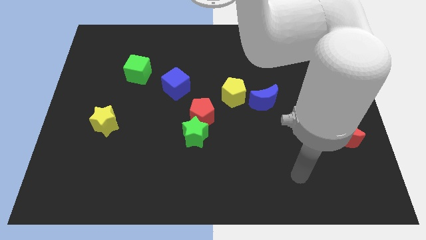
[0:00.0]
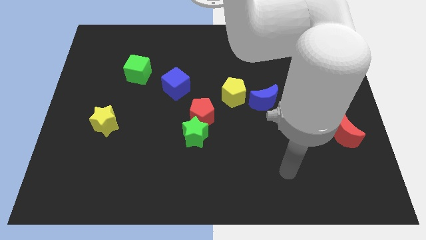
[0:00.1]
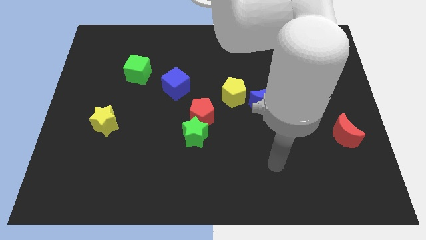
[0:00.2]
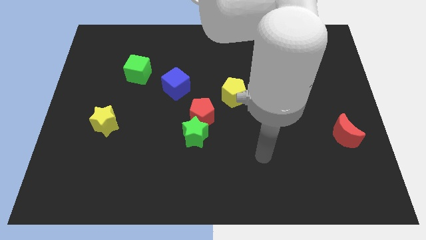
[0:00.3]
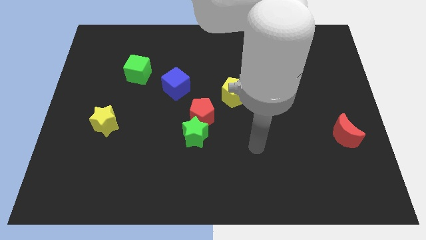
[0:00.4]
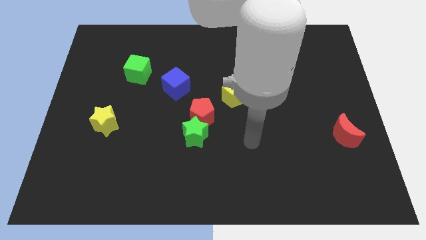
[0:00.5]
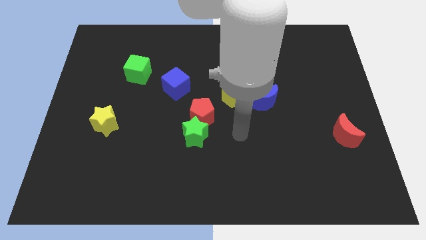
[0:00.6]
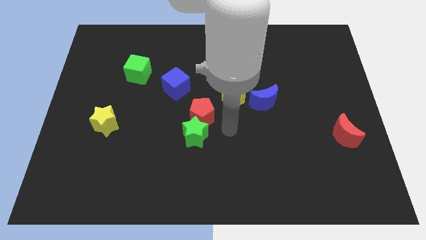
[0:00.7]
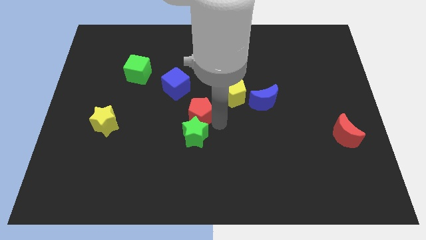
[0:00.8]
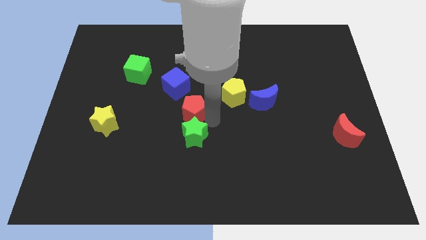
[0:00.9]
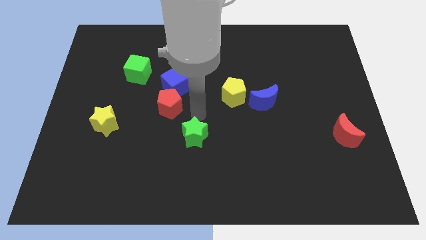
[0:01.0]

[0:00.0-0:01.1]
pull the green star apart from the red pentagon

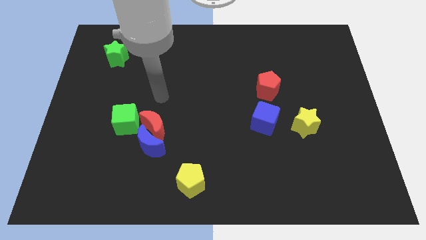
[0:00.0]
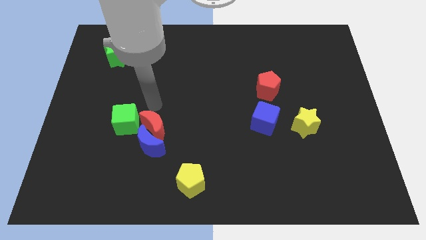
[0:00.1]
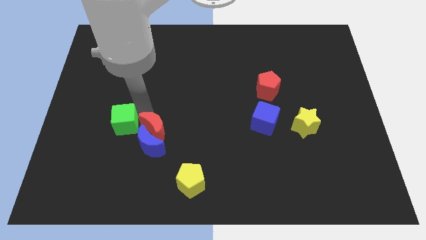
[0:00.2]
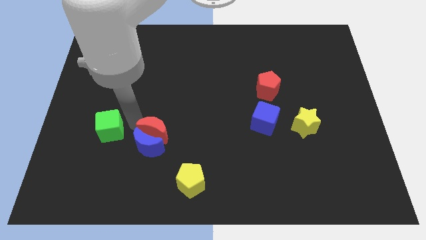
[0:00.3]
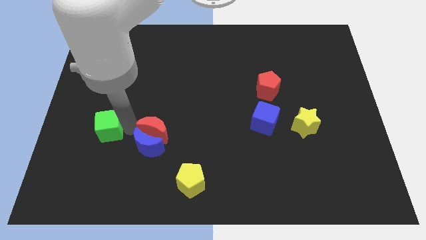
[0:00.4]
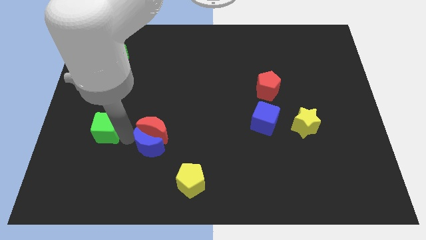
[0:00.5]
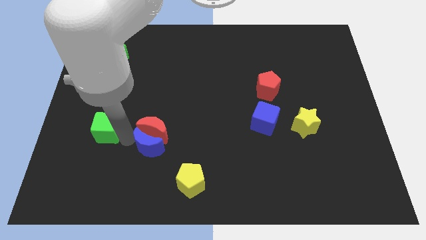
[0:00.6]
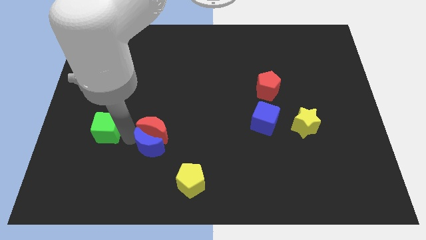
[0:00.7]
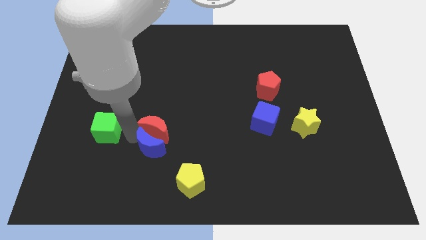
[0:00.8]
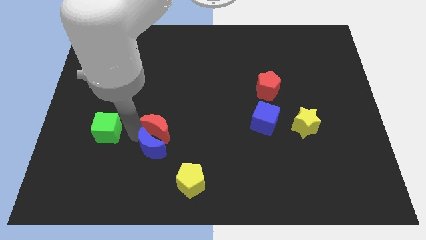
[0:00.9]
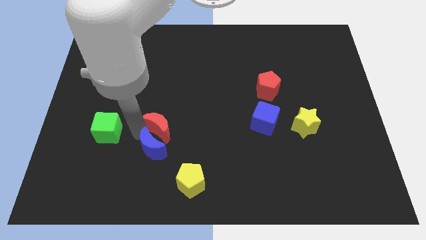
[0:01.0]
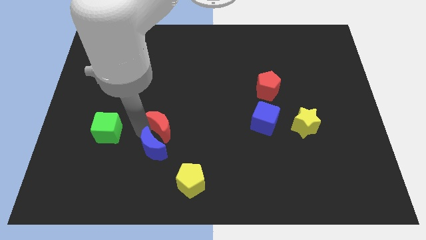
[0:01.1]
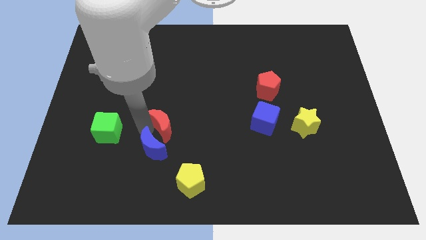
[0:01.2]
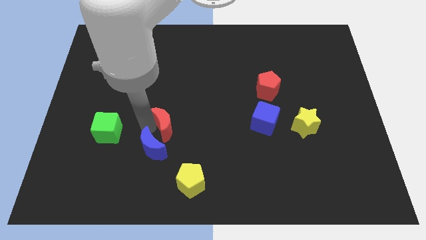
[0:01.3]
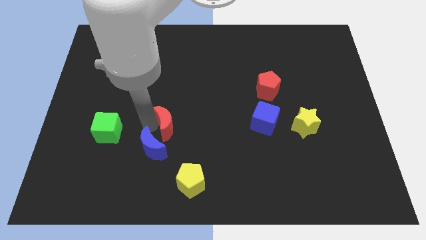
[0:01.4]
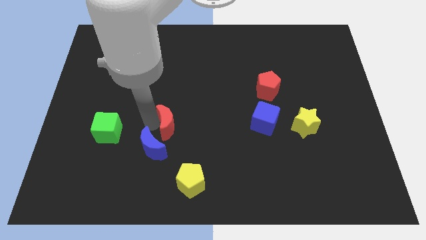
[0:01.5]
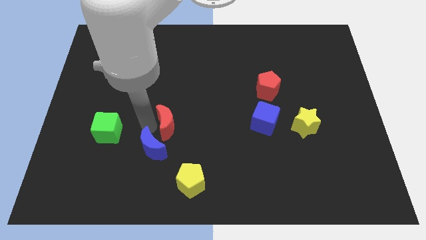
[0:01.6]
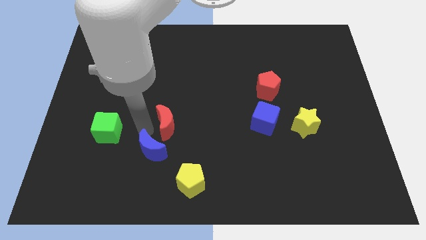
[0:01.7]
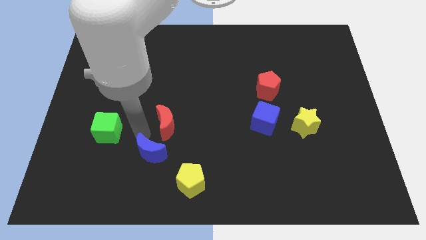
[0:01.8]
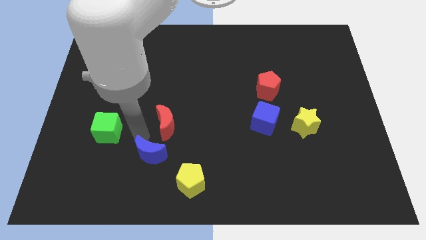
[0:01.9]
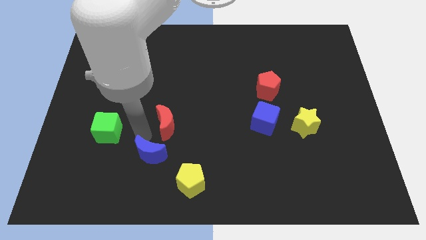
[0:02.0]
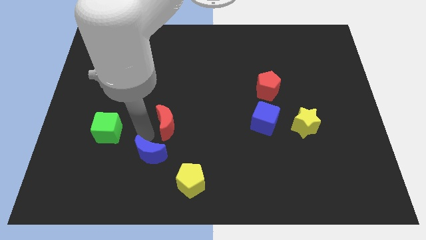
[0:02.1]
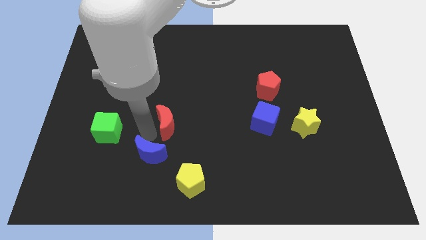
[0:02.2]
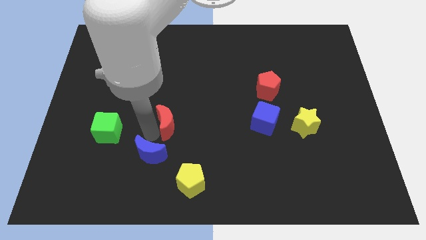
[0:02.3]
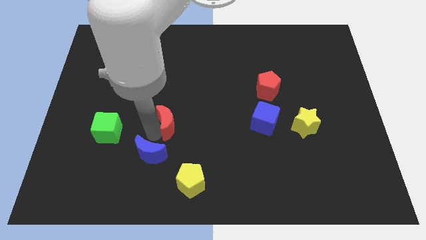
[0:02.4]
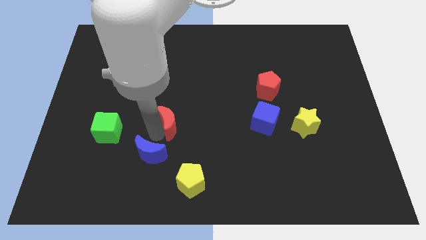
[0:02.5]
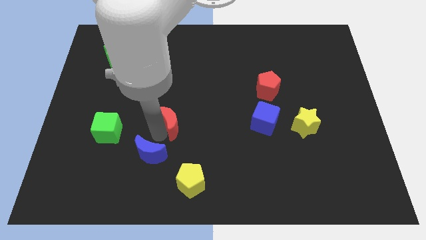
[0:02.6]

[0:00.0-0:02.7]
move the red moon away from the blue moon and green cube

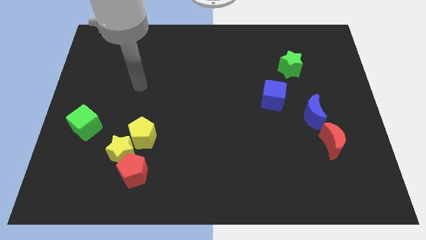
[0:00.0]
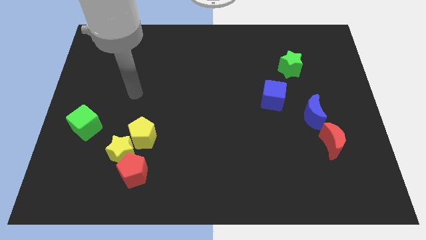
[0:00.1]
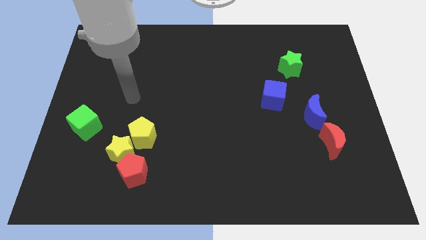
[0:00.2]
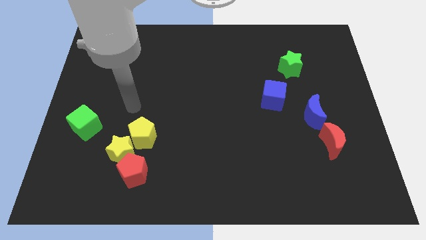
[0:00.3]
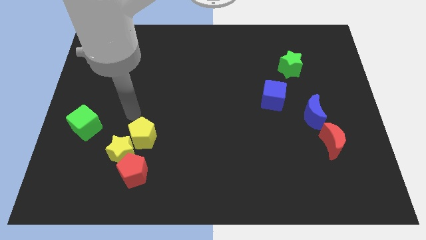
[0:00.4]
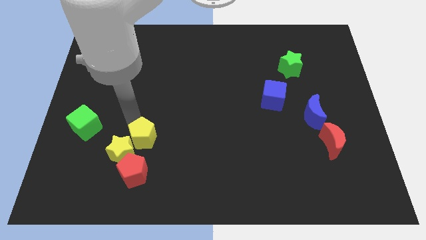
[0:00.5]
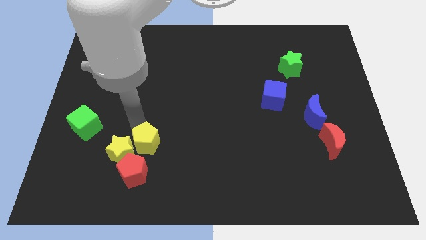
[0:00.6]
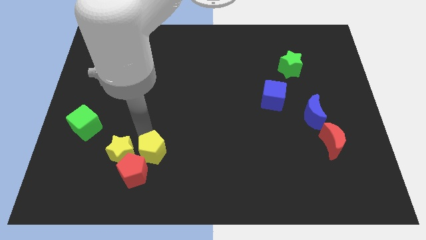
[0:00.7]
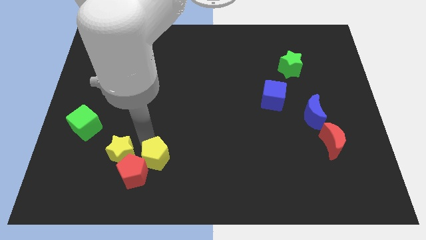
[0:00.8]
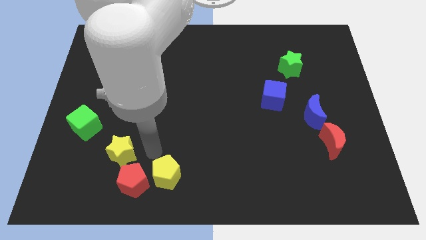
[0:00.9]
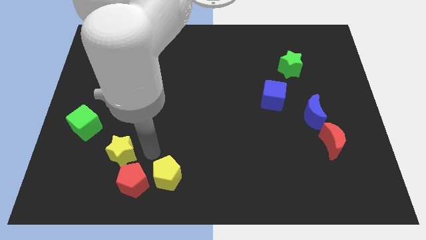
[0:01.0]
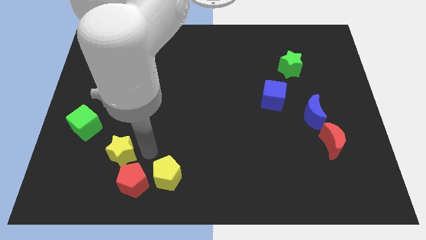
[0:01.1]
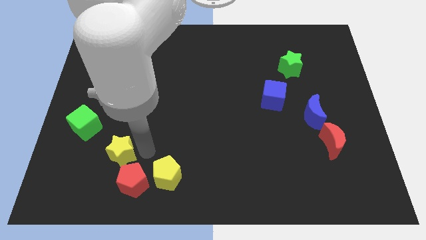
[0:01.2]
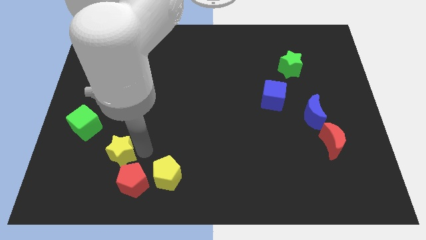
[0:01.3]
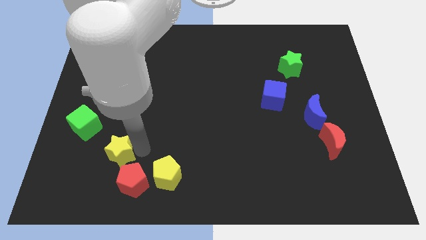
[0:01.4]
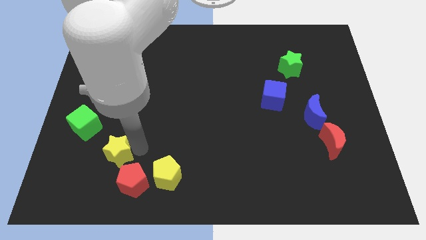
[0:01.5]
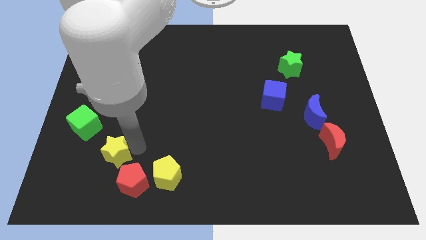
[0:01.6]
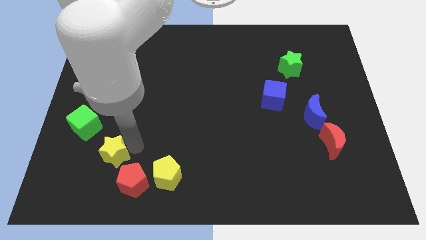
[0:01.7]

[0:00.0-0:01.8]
move the yellow star away from the yellow pentagon and red pentagon

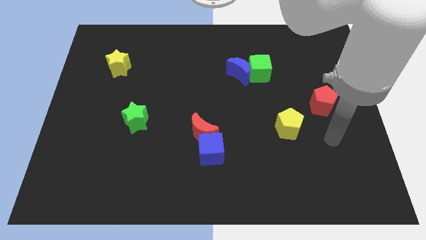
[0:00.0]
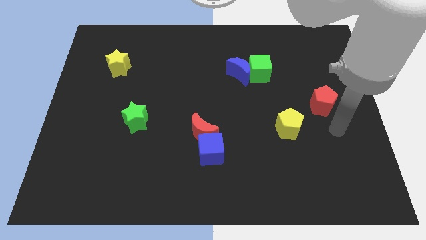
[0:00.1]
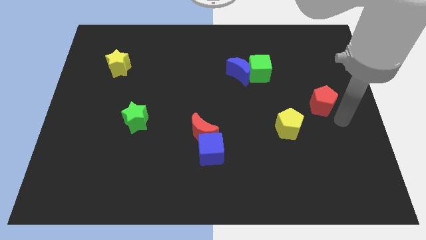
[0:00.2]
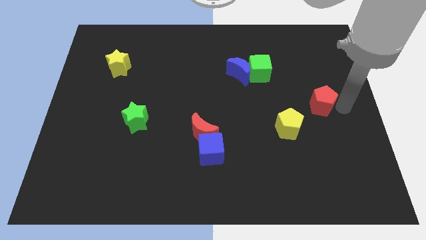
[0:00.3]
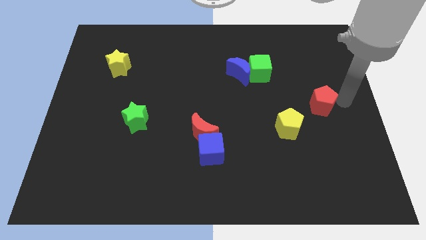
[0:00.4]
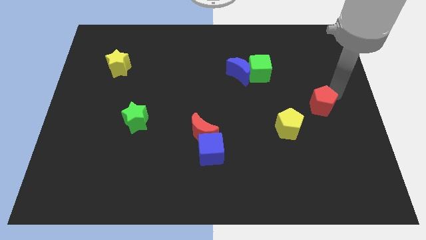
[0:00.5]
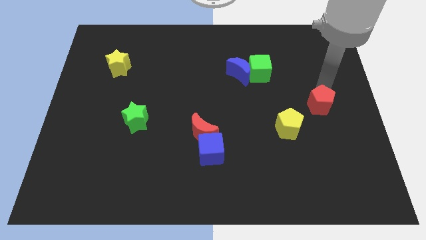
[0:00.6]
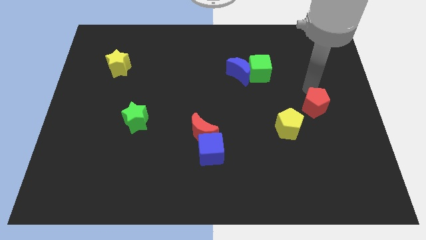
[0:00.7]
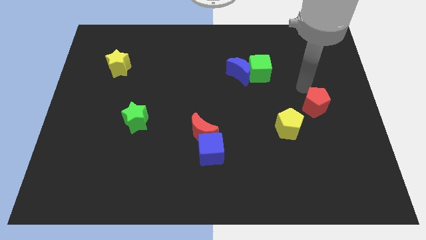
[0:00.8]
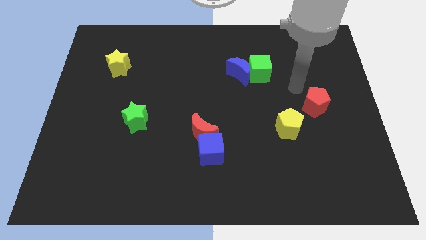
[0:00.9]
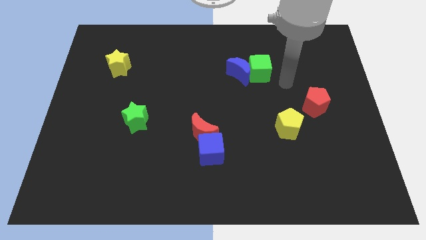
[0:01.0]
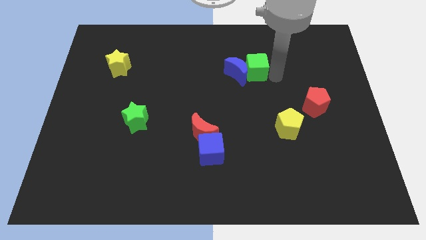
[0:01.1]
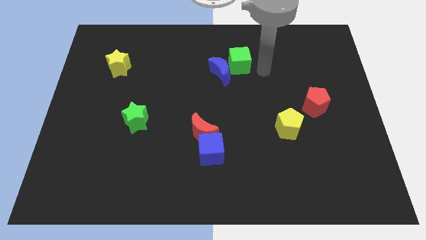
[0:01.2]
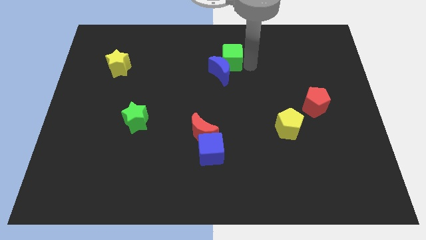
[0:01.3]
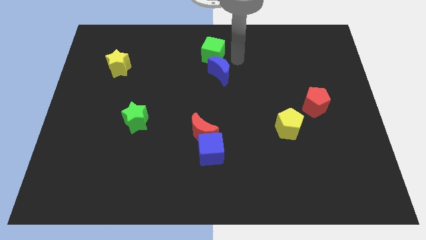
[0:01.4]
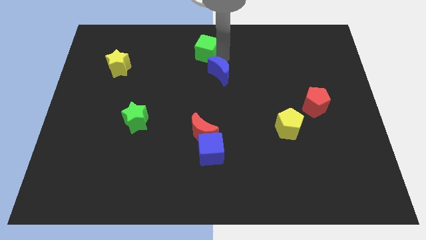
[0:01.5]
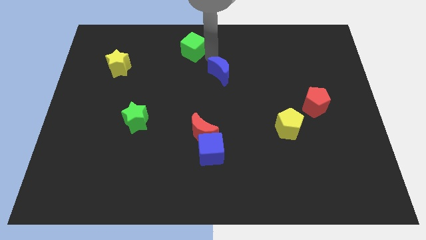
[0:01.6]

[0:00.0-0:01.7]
separate the blue moon from the green cube

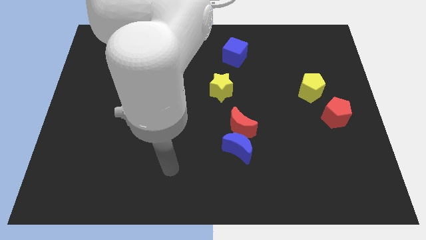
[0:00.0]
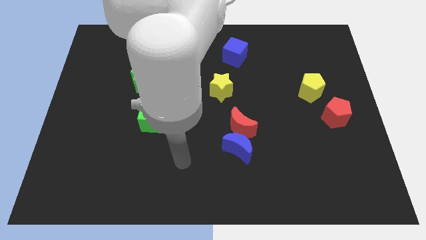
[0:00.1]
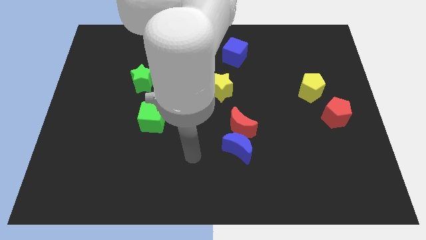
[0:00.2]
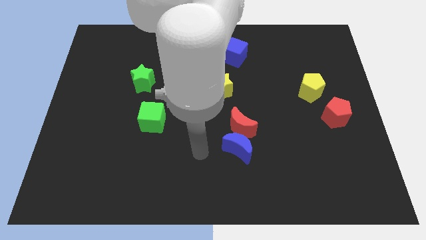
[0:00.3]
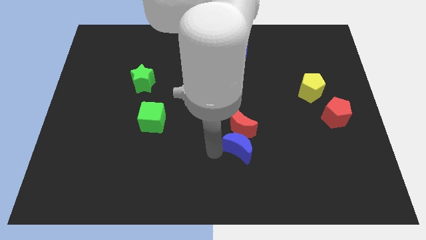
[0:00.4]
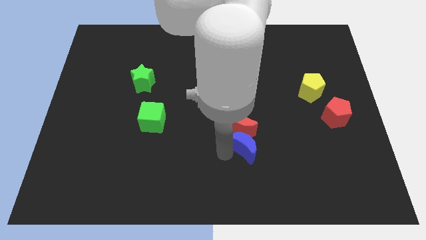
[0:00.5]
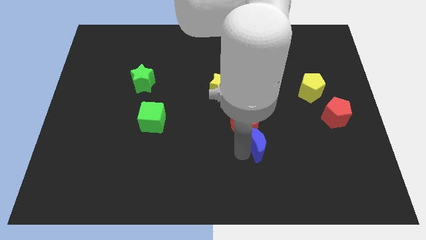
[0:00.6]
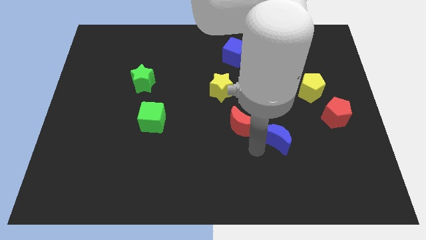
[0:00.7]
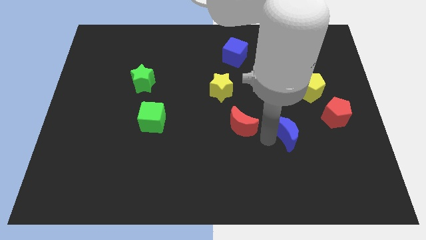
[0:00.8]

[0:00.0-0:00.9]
pull the red moon apart from the blue moon

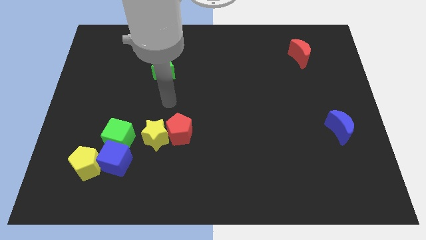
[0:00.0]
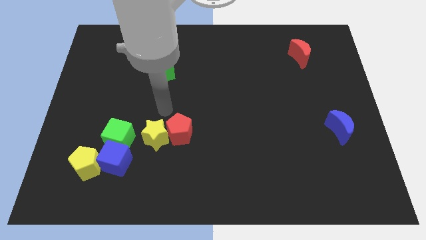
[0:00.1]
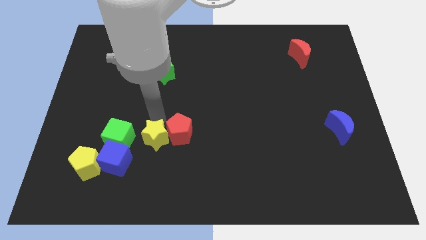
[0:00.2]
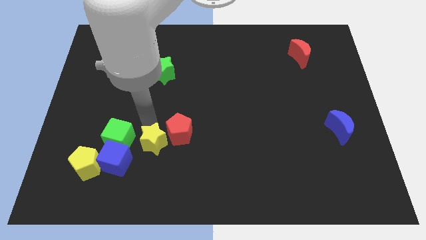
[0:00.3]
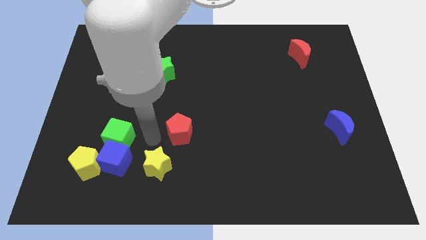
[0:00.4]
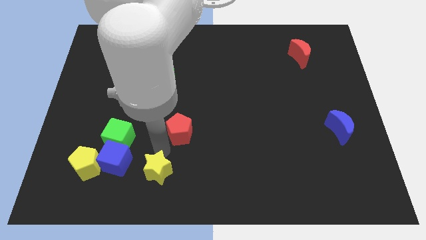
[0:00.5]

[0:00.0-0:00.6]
move the red pentagon away from the yellow star

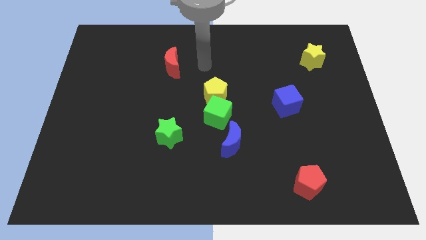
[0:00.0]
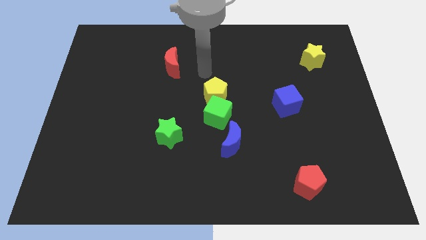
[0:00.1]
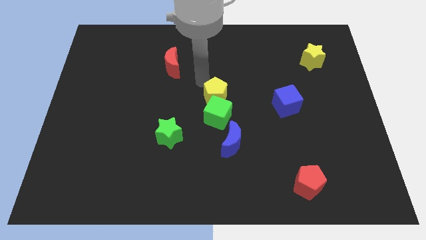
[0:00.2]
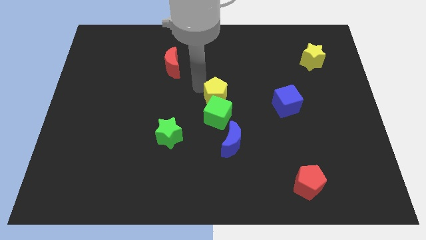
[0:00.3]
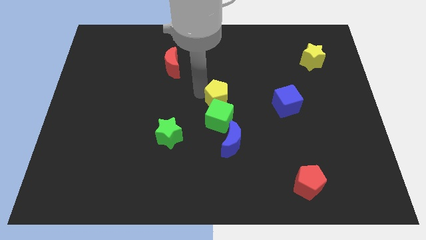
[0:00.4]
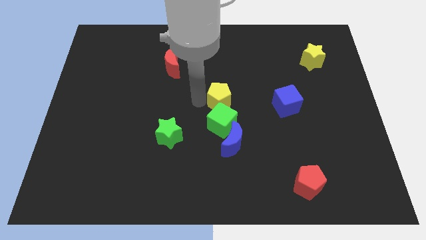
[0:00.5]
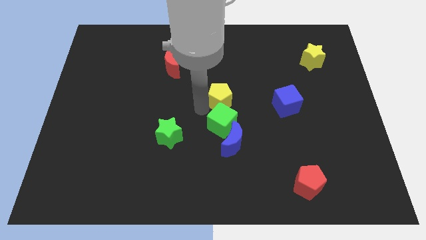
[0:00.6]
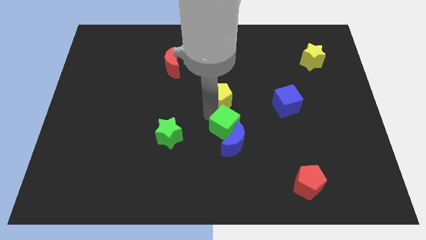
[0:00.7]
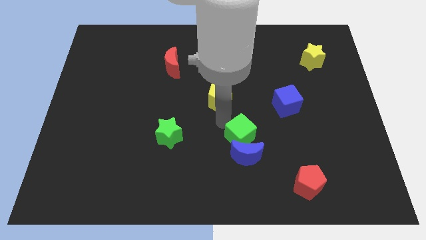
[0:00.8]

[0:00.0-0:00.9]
move the yellow pentagon away from the green cube
